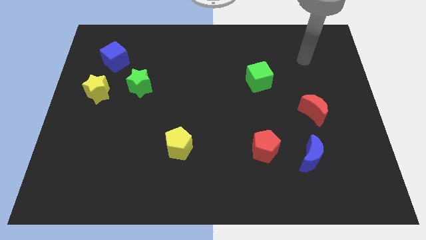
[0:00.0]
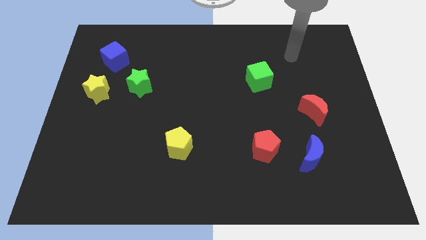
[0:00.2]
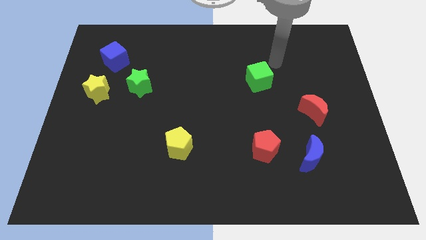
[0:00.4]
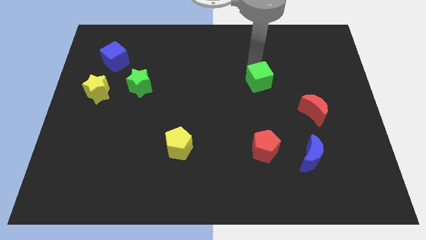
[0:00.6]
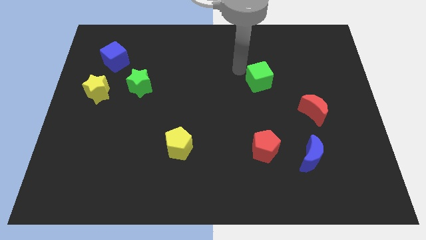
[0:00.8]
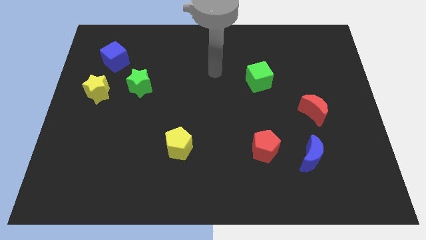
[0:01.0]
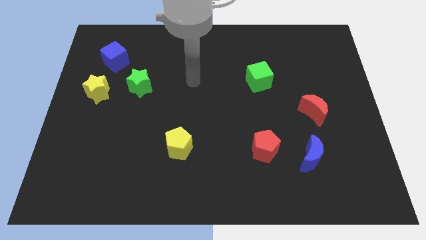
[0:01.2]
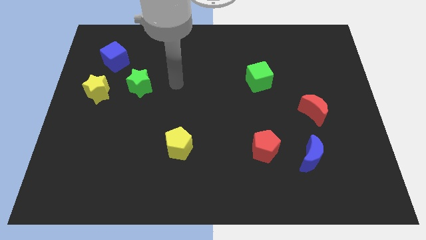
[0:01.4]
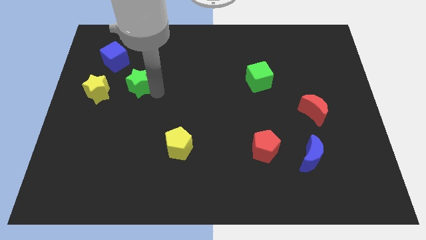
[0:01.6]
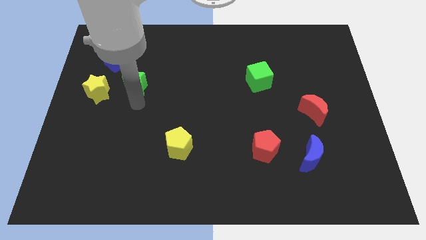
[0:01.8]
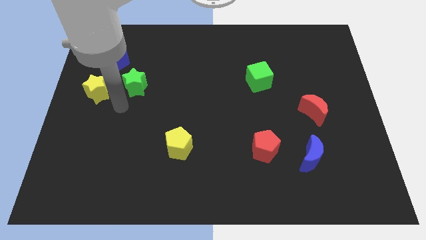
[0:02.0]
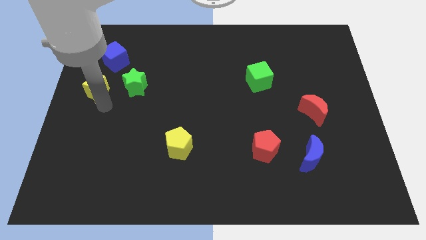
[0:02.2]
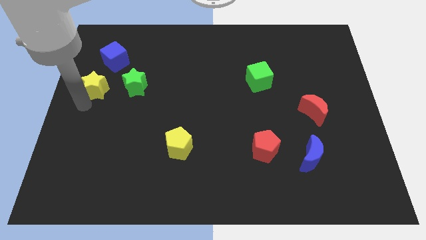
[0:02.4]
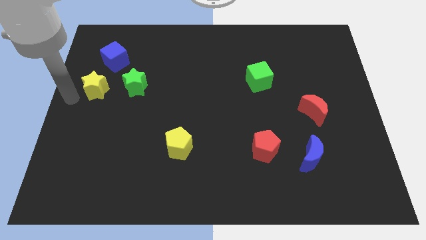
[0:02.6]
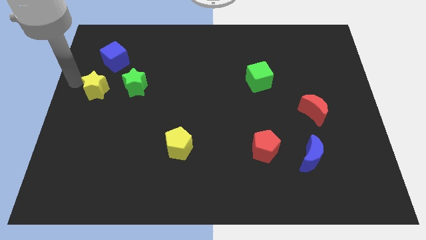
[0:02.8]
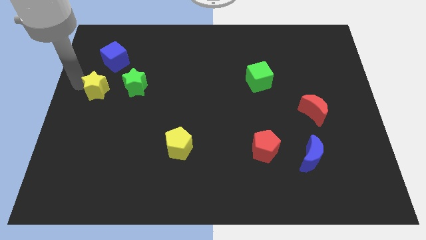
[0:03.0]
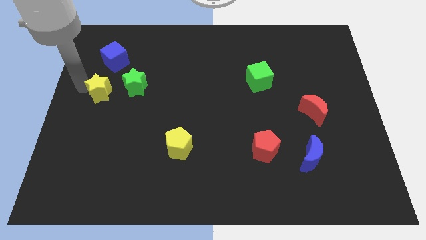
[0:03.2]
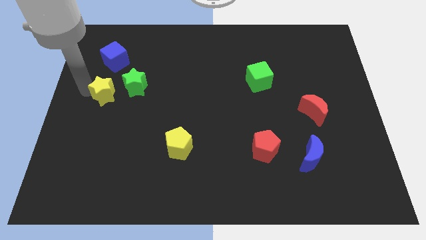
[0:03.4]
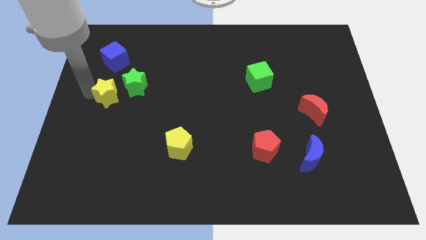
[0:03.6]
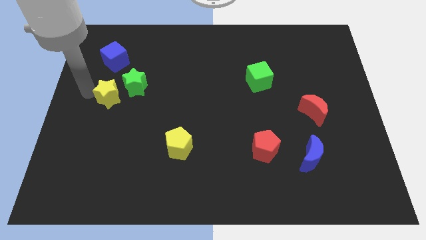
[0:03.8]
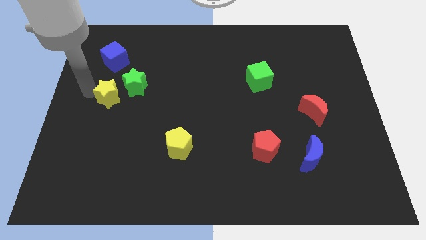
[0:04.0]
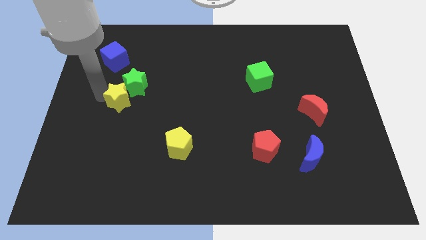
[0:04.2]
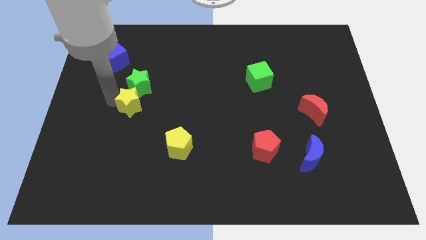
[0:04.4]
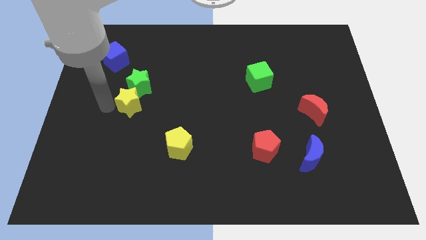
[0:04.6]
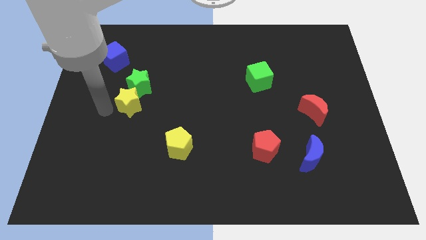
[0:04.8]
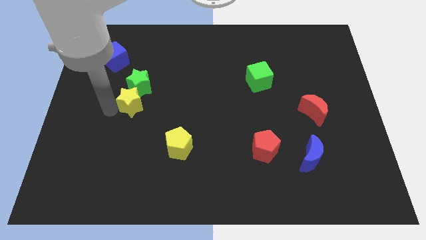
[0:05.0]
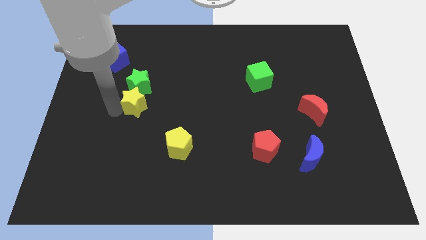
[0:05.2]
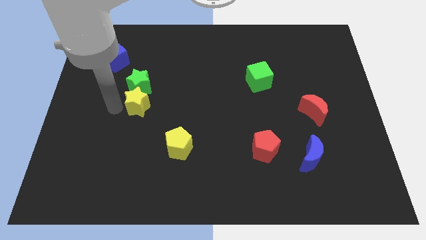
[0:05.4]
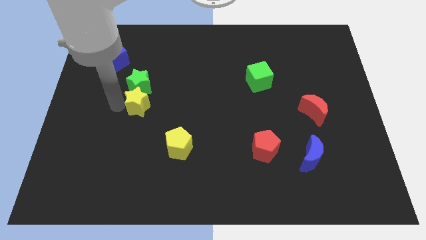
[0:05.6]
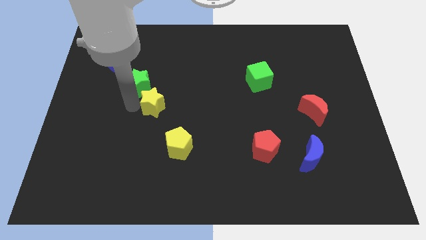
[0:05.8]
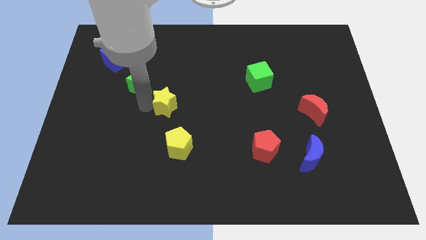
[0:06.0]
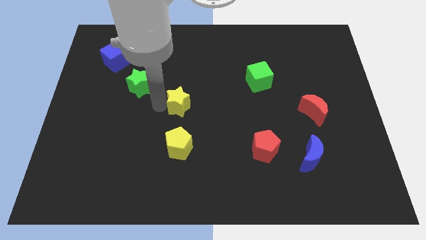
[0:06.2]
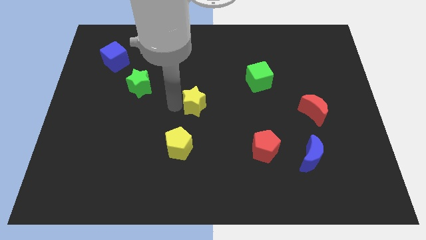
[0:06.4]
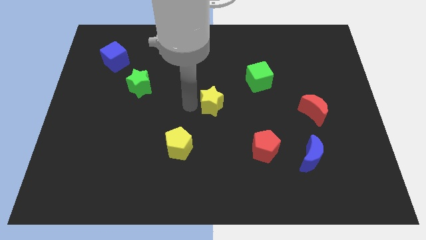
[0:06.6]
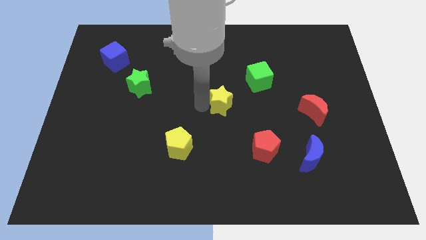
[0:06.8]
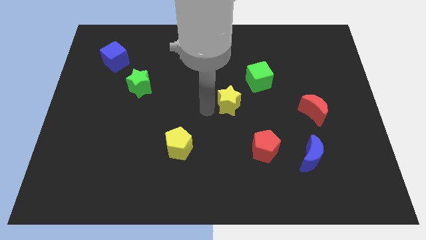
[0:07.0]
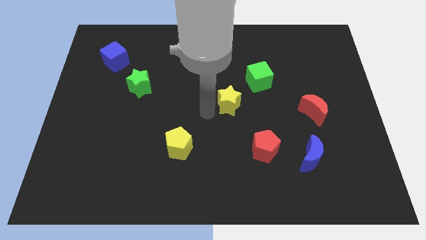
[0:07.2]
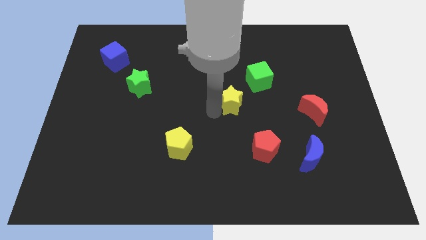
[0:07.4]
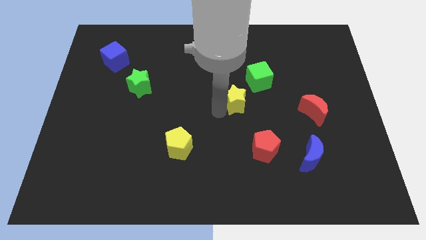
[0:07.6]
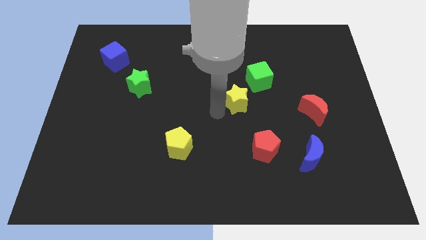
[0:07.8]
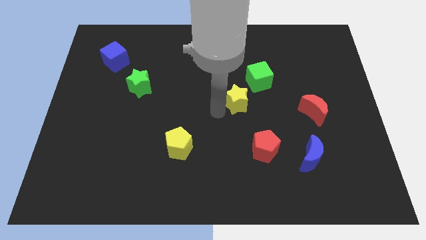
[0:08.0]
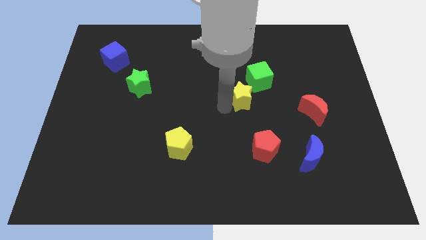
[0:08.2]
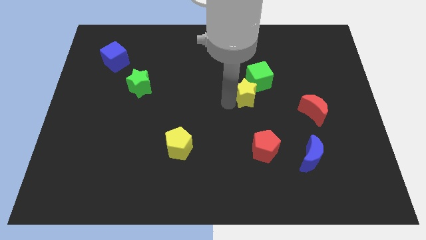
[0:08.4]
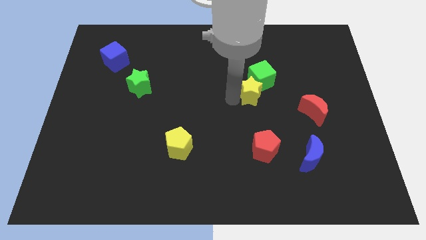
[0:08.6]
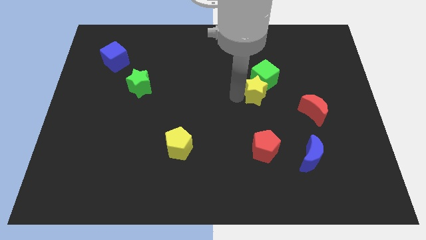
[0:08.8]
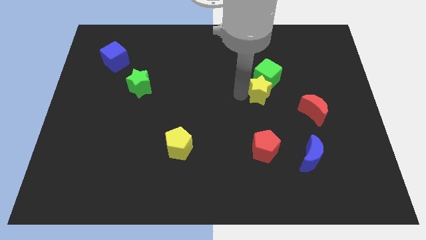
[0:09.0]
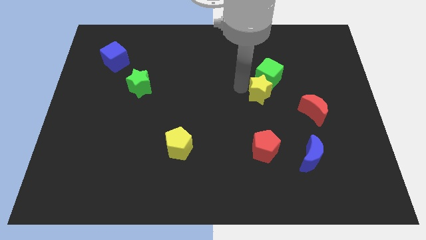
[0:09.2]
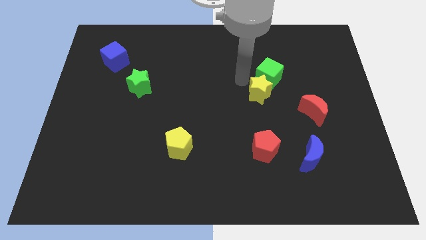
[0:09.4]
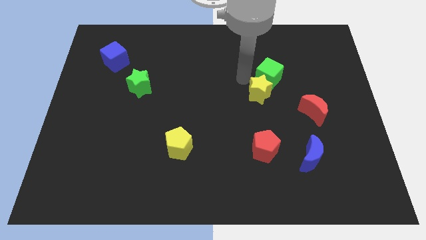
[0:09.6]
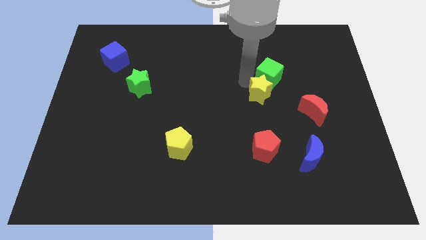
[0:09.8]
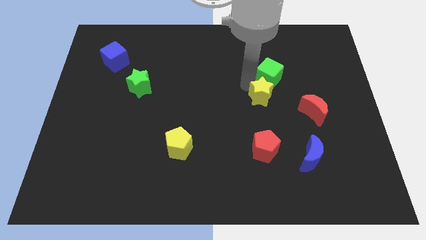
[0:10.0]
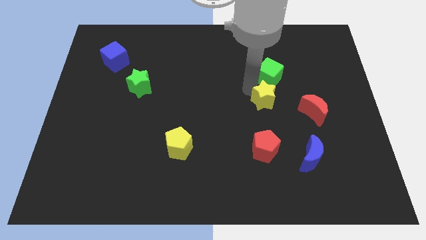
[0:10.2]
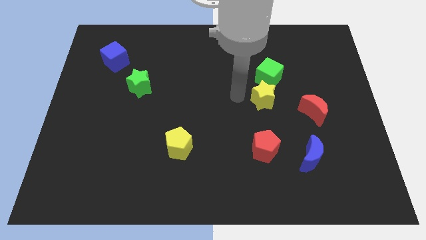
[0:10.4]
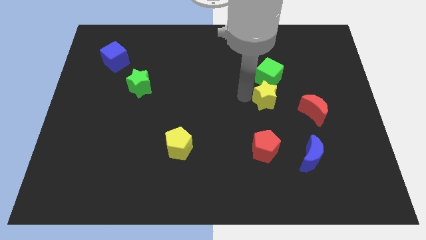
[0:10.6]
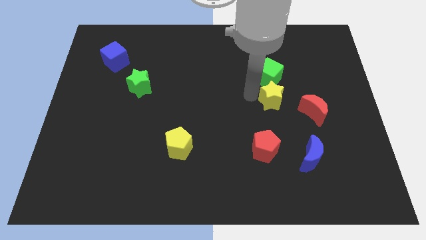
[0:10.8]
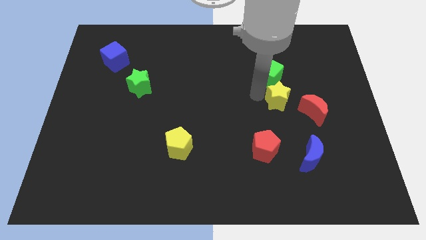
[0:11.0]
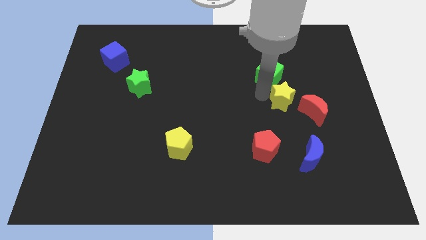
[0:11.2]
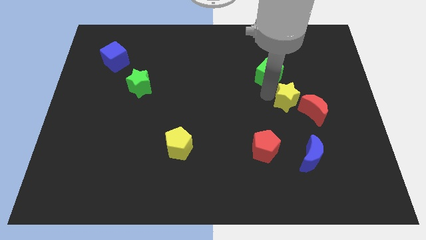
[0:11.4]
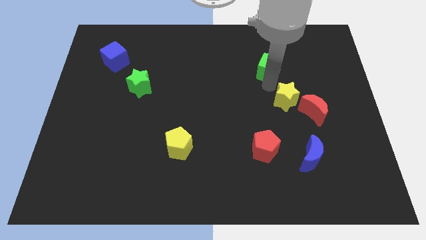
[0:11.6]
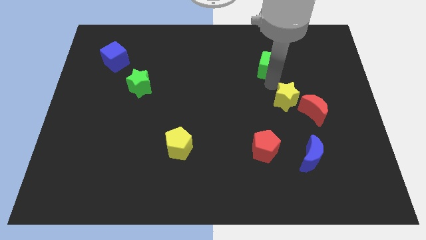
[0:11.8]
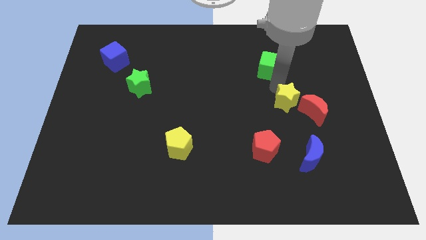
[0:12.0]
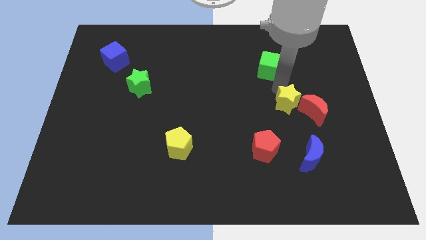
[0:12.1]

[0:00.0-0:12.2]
slide the yellow star to the top of the blue moon

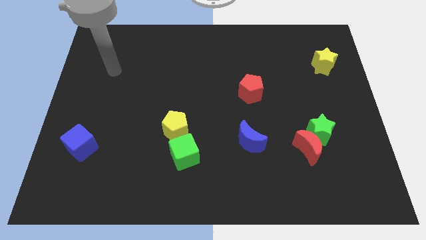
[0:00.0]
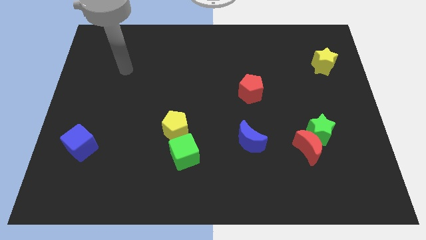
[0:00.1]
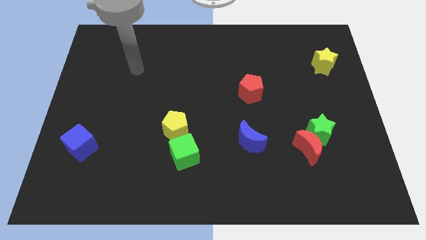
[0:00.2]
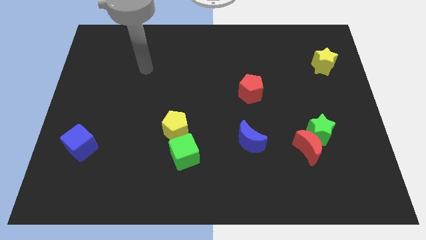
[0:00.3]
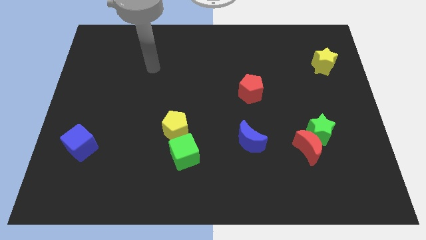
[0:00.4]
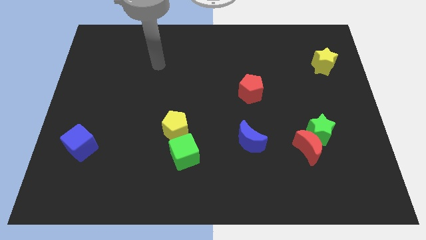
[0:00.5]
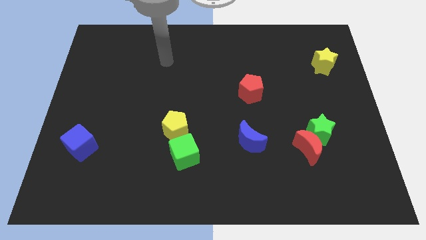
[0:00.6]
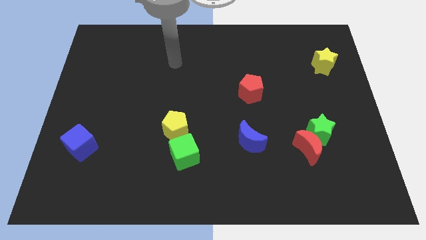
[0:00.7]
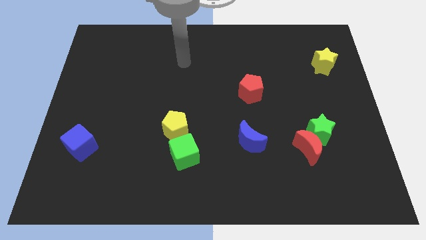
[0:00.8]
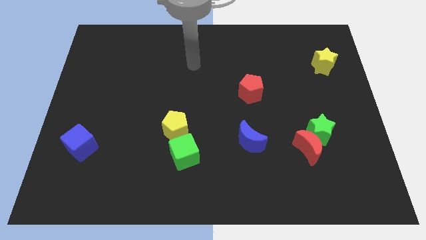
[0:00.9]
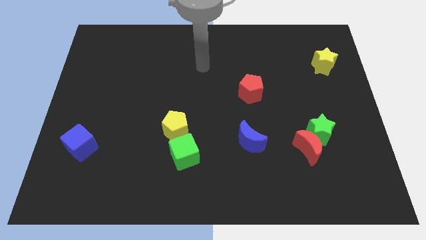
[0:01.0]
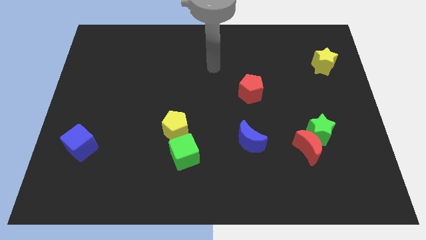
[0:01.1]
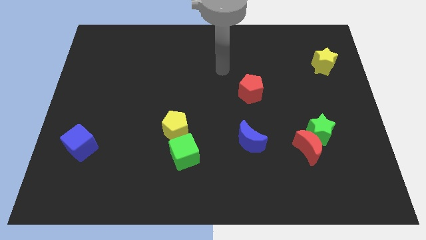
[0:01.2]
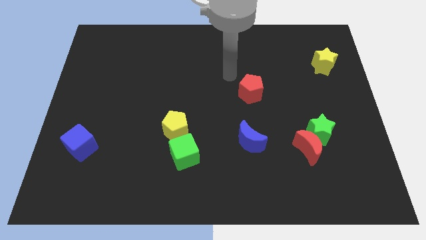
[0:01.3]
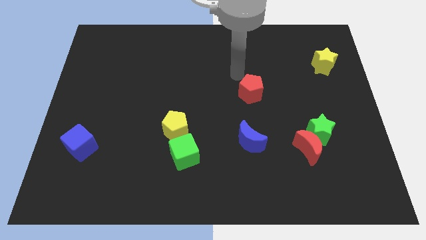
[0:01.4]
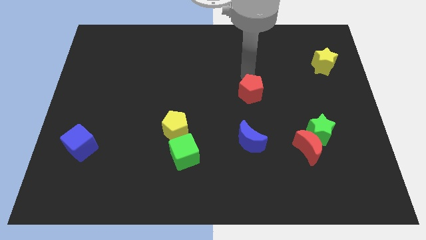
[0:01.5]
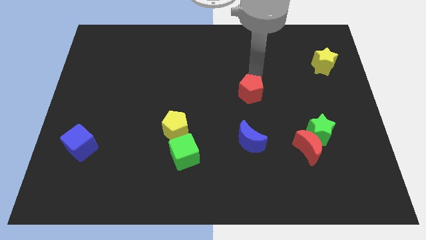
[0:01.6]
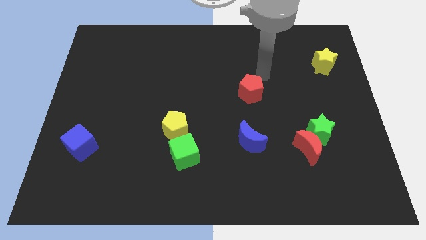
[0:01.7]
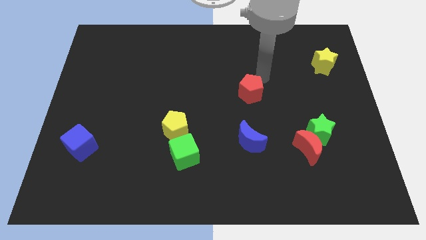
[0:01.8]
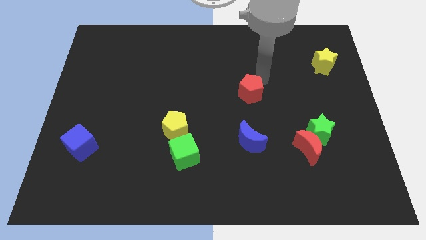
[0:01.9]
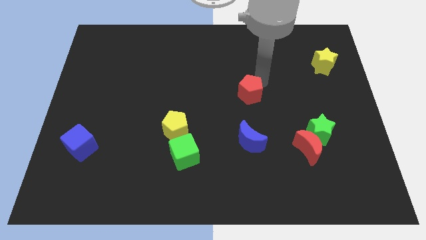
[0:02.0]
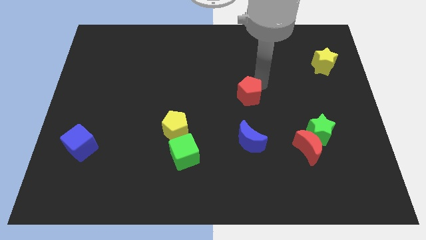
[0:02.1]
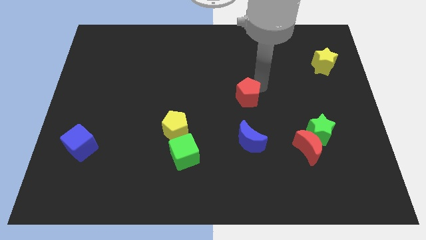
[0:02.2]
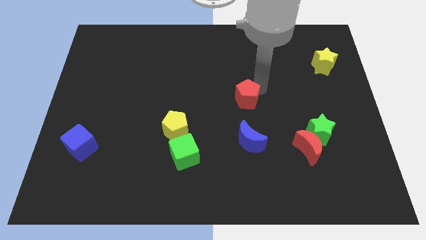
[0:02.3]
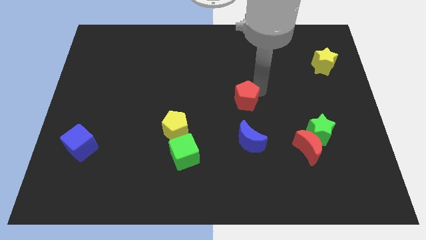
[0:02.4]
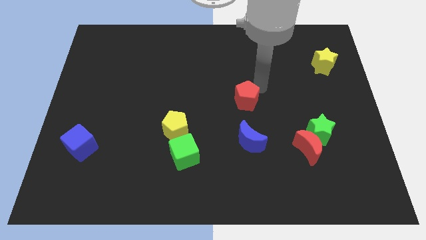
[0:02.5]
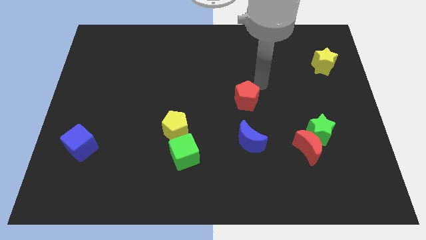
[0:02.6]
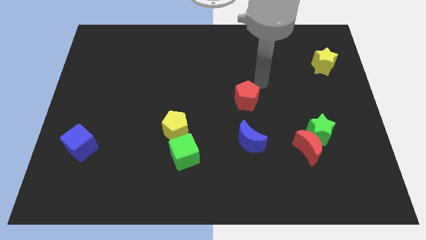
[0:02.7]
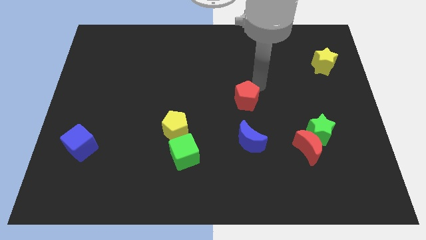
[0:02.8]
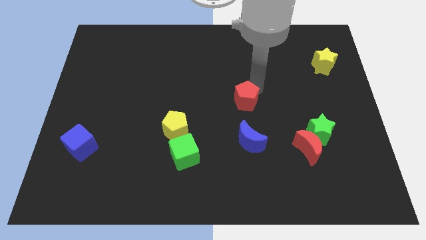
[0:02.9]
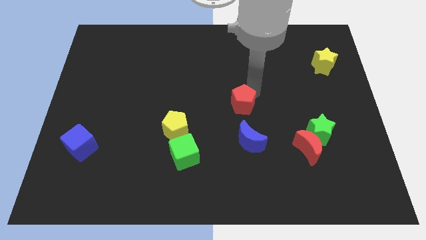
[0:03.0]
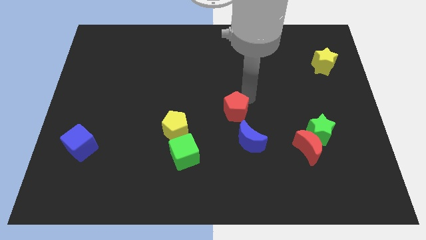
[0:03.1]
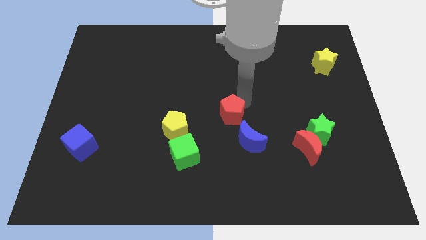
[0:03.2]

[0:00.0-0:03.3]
put the red pentagon to the right of the yellow pentagon
